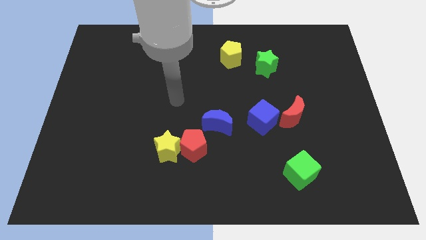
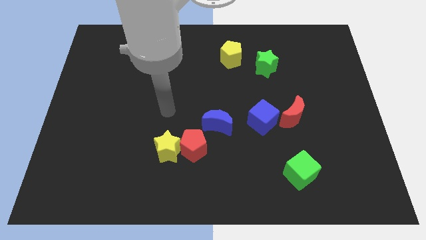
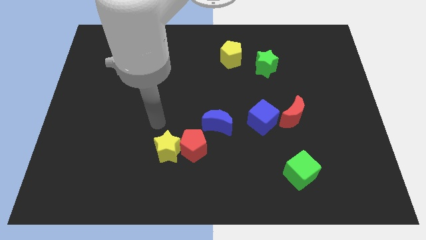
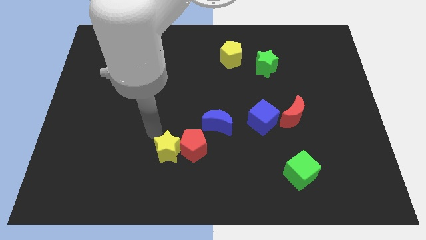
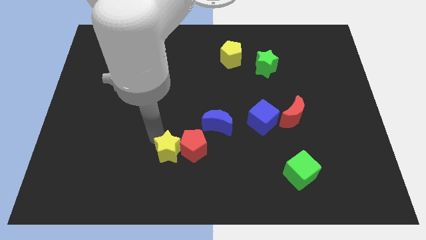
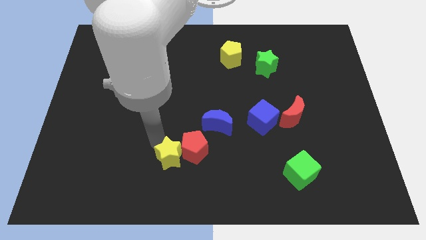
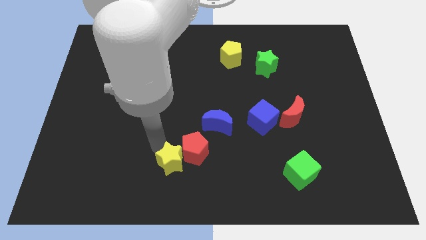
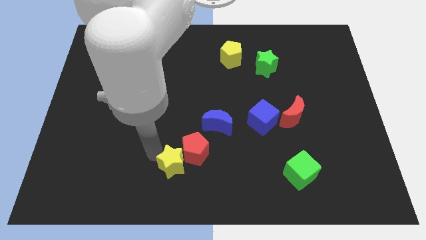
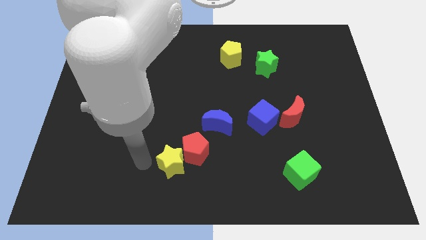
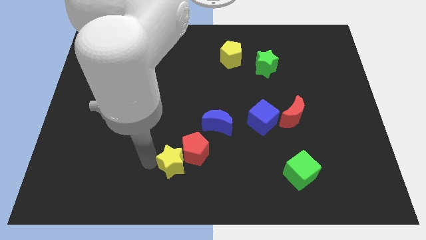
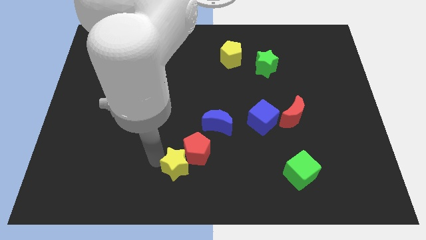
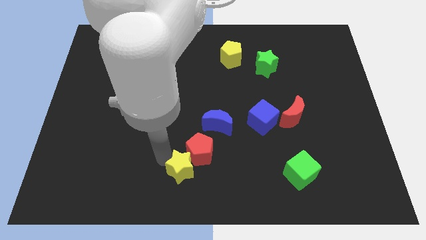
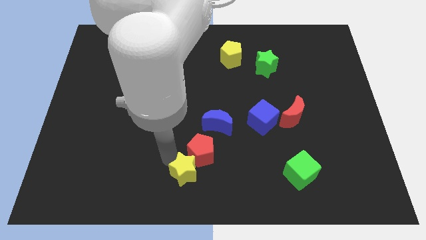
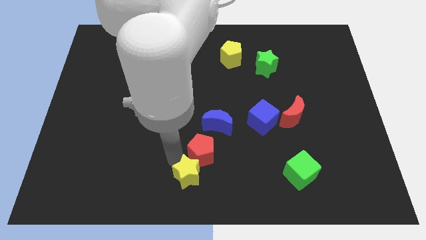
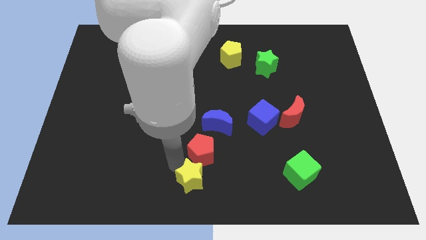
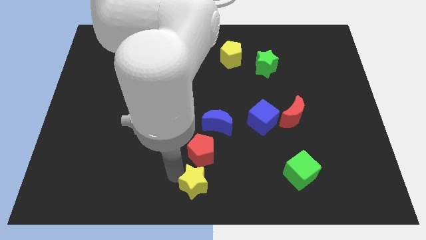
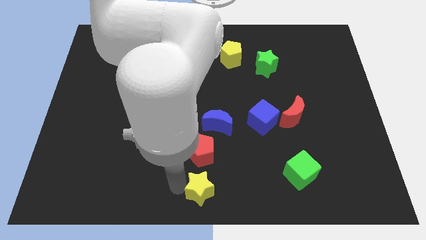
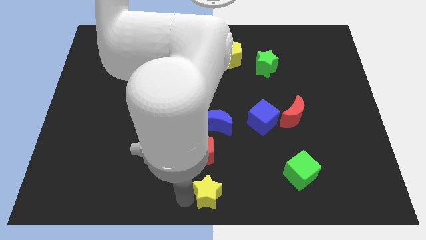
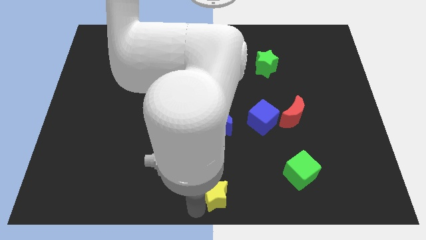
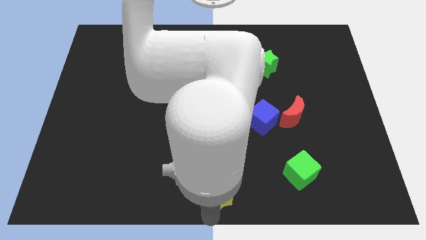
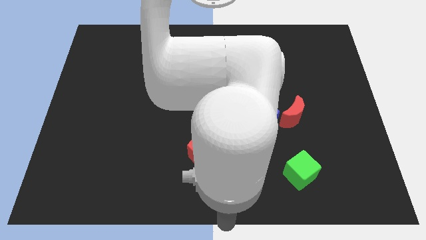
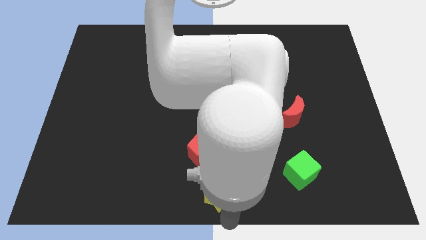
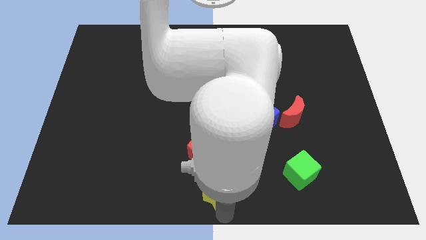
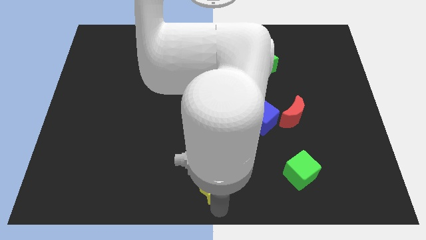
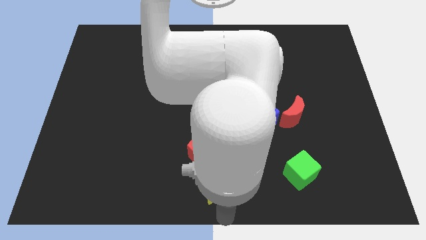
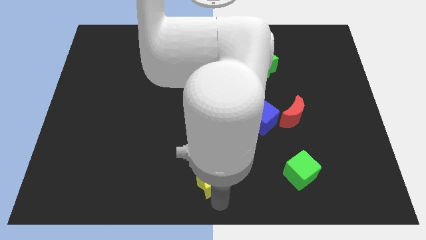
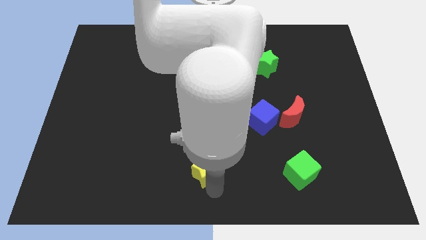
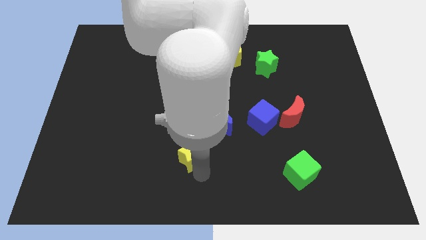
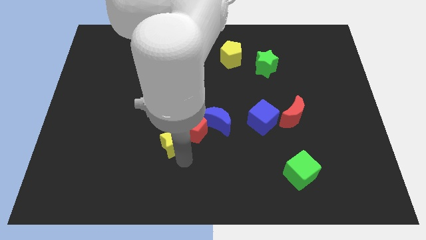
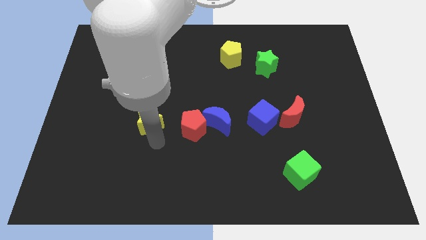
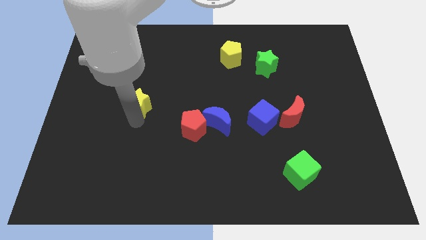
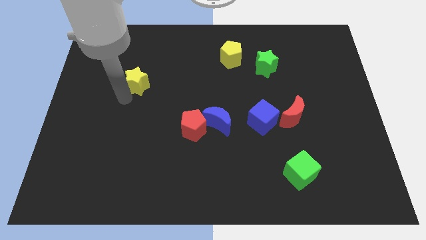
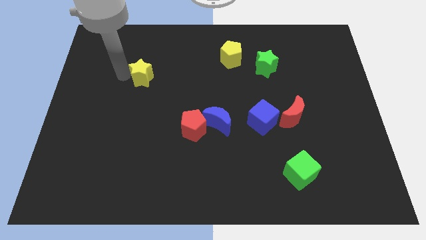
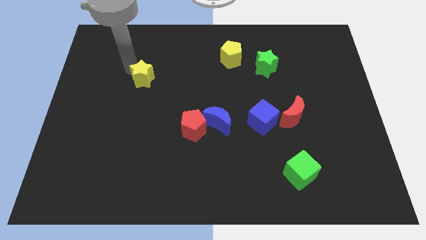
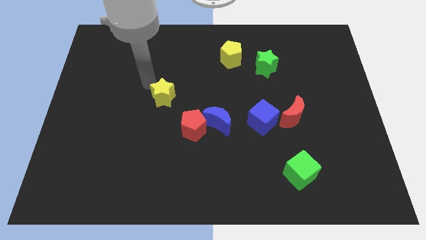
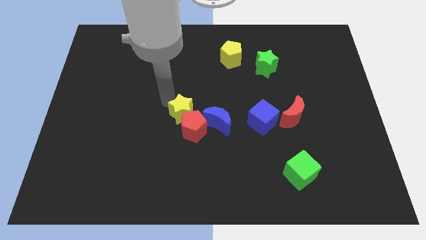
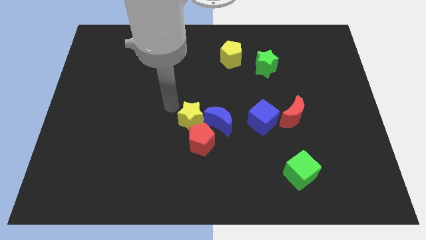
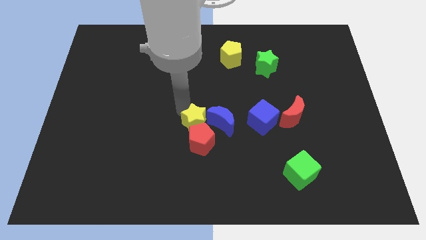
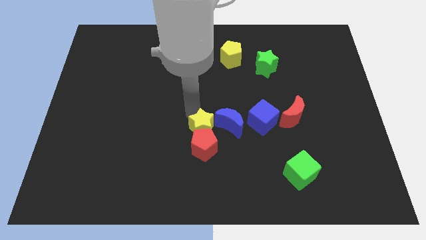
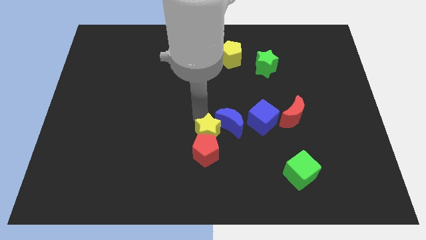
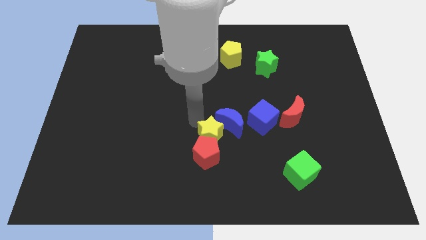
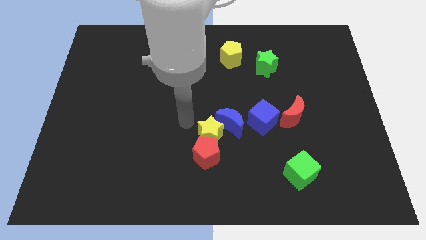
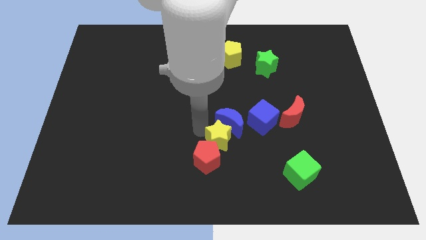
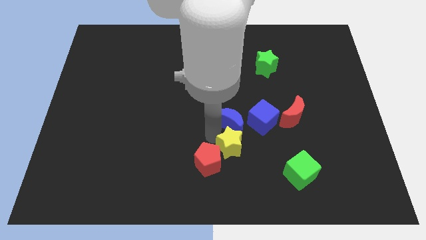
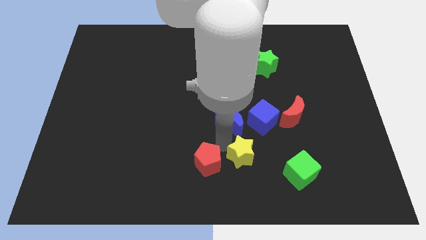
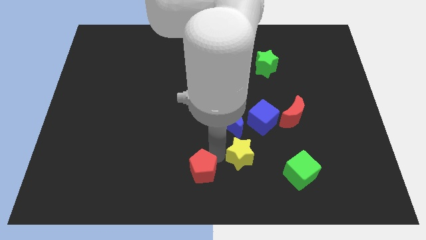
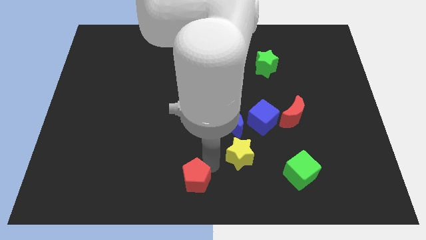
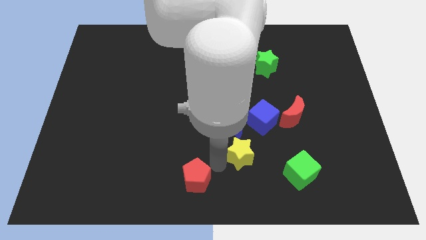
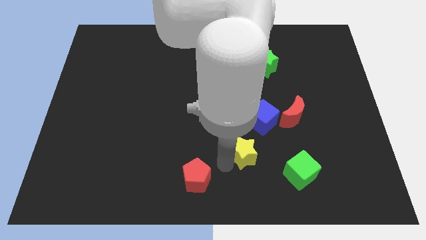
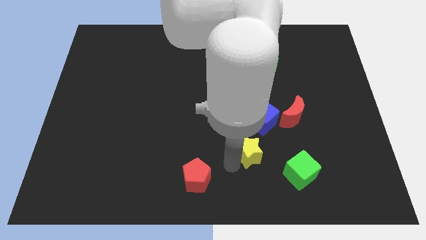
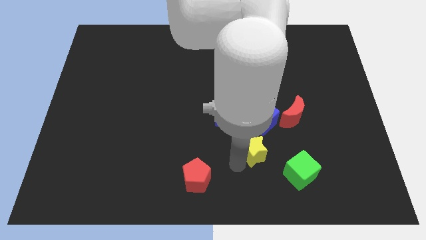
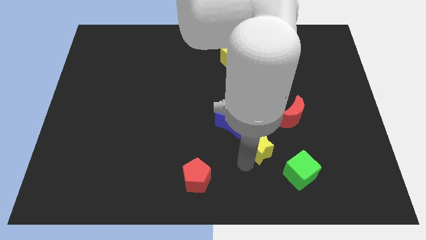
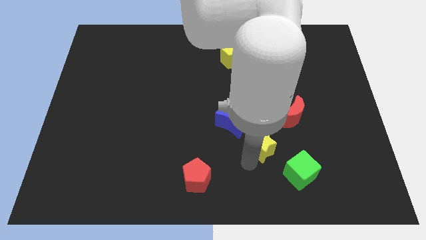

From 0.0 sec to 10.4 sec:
slide the yellow star to the right

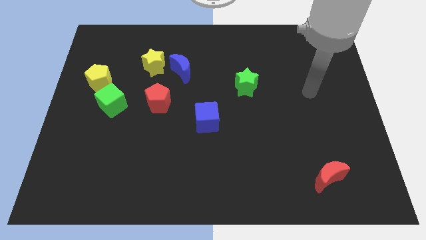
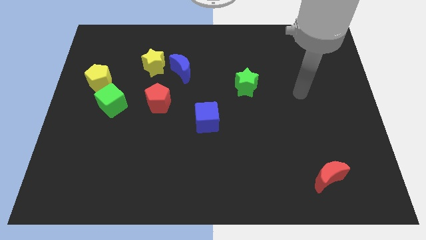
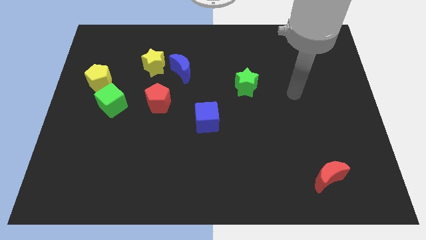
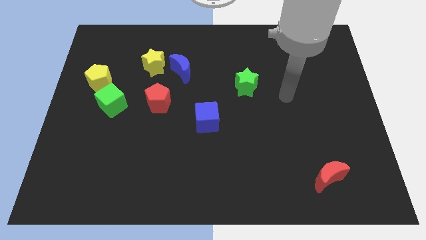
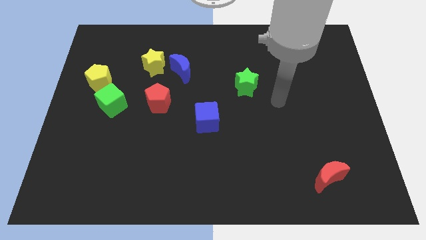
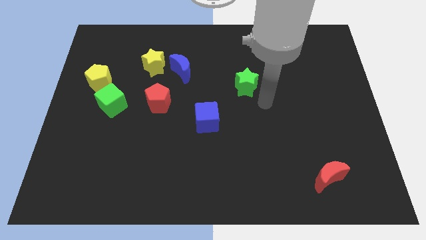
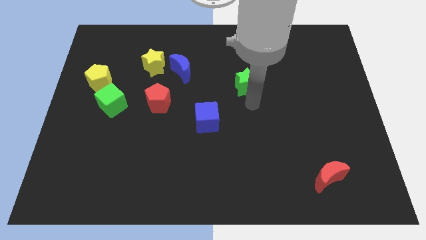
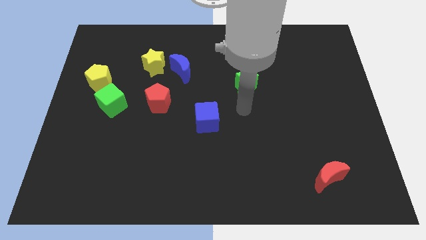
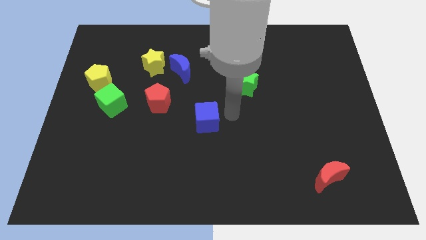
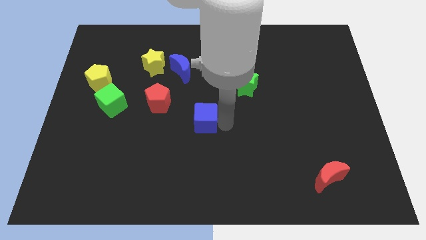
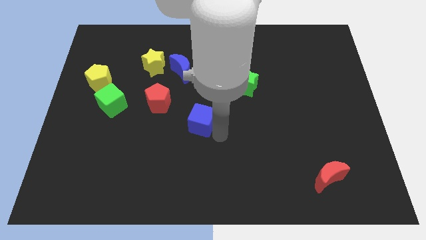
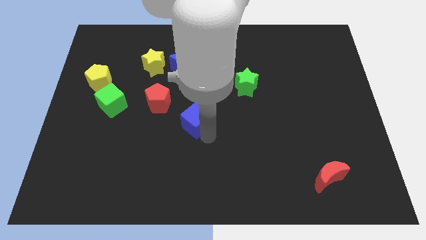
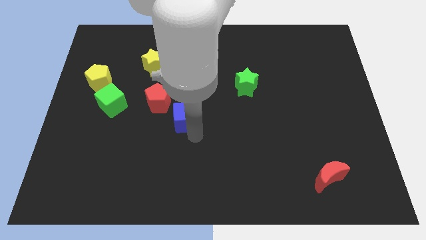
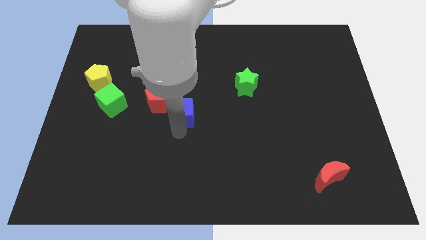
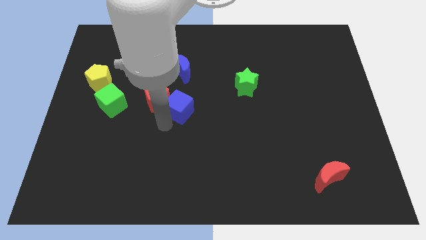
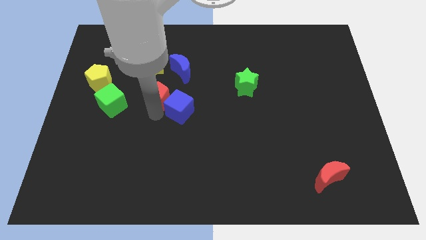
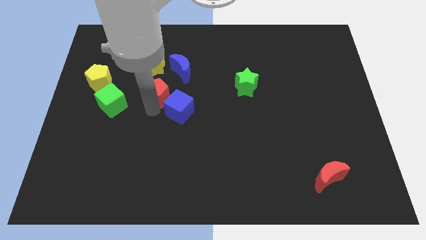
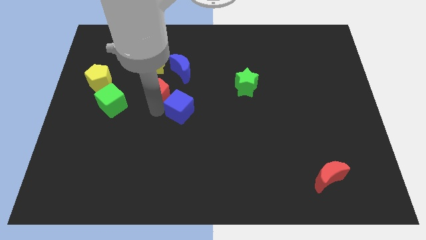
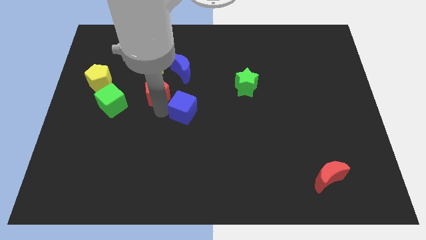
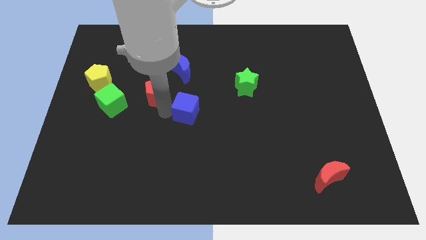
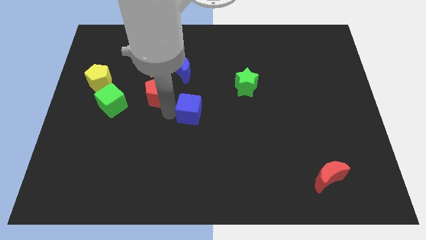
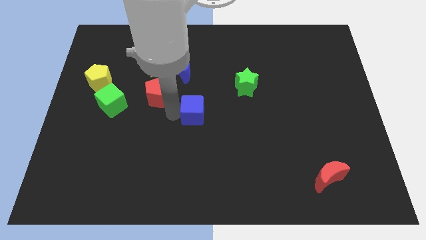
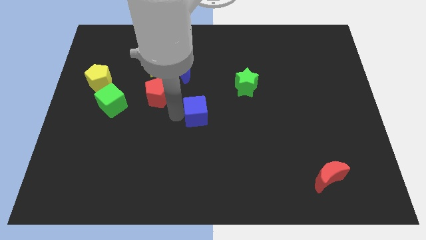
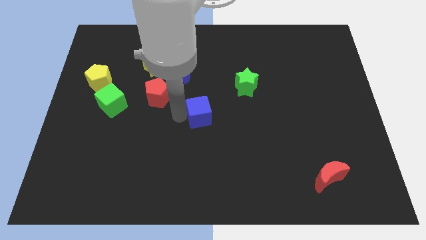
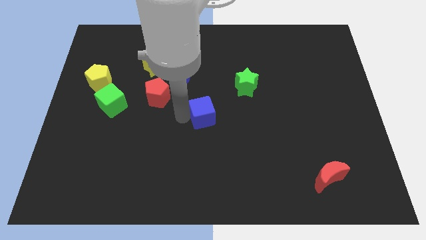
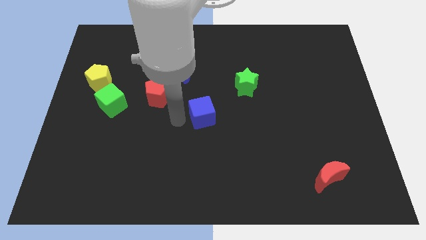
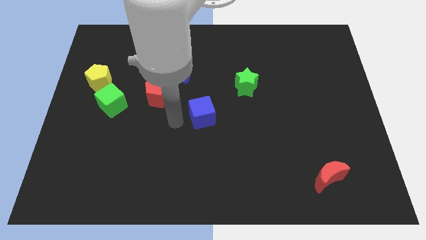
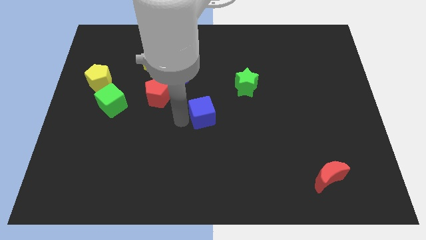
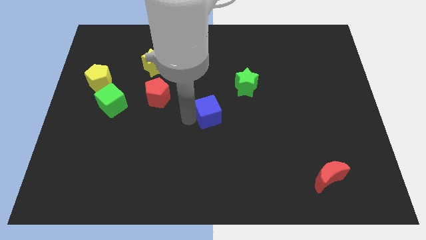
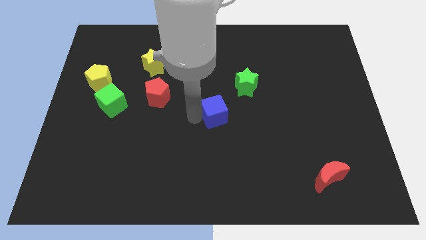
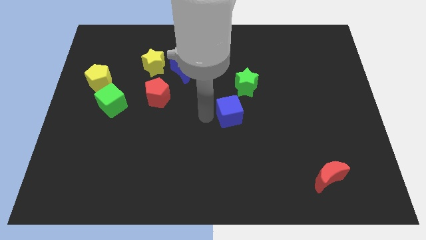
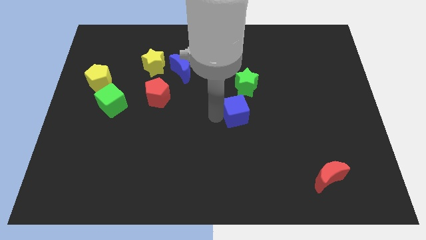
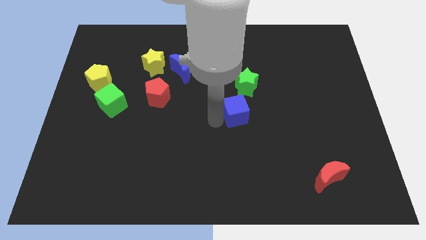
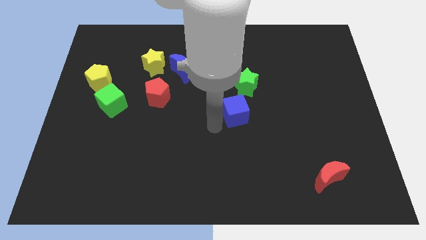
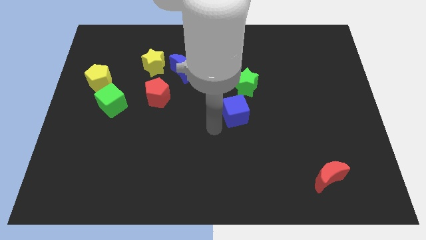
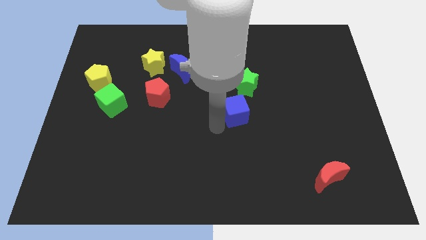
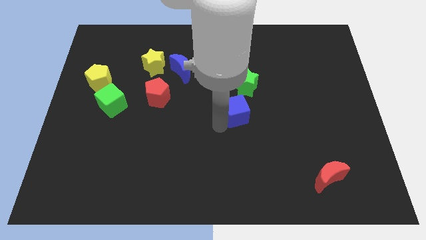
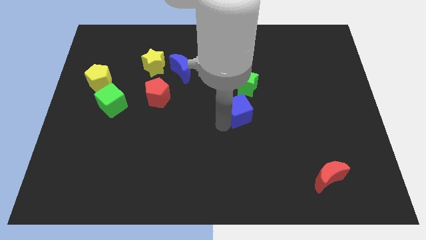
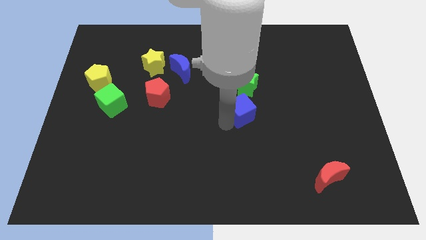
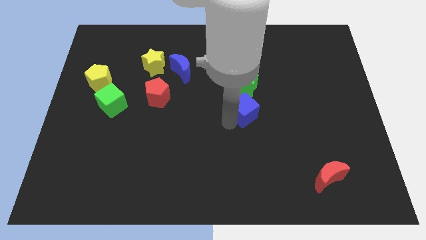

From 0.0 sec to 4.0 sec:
move the blue cube a little upwards and to the right diagonally
